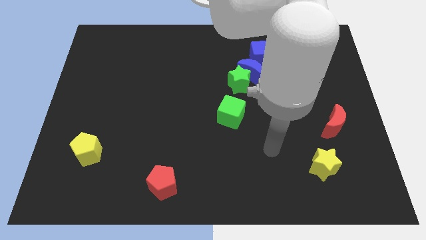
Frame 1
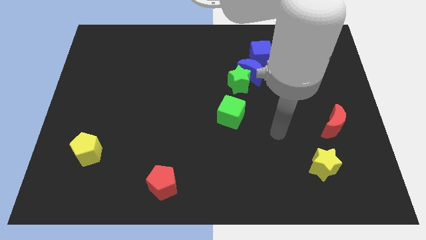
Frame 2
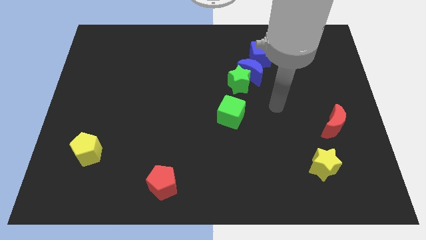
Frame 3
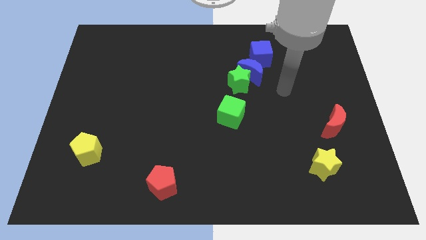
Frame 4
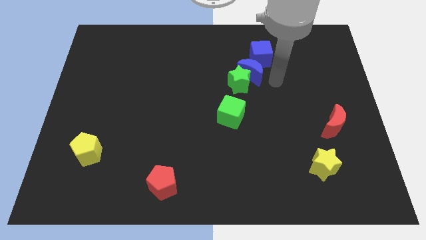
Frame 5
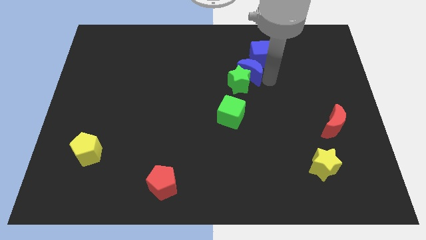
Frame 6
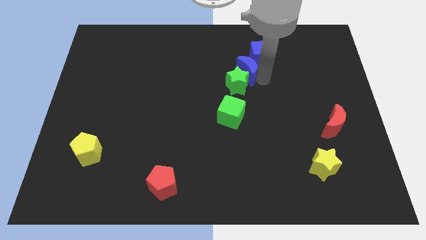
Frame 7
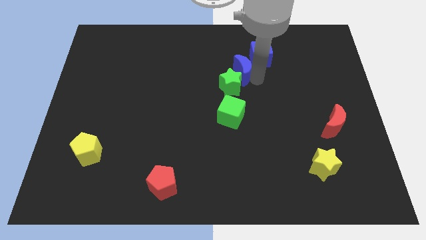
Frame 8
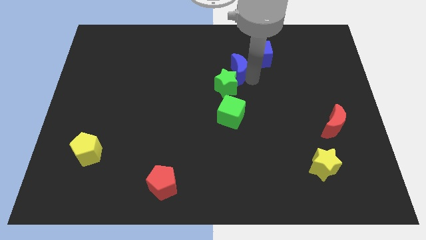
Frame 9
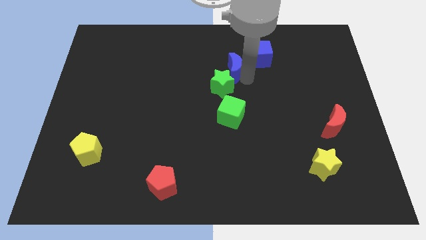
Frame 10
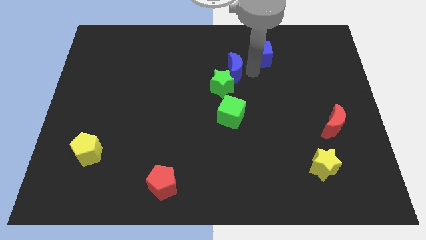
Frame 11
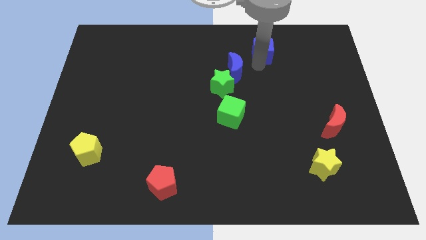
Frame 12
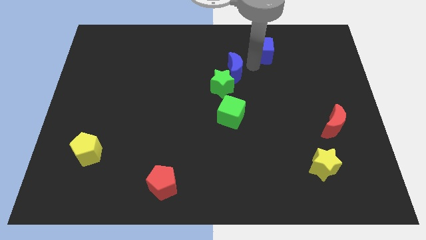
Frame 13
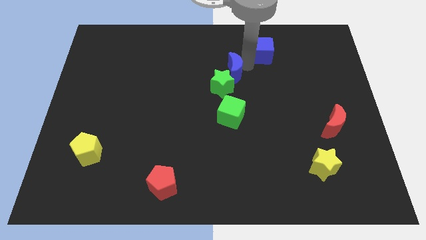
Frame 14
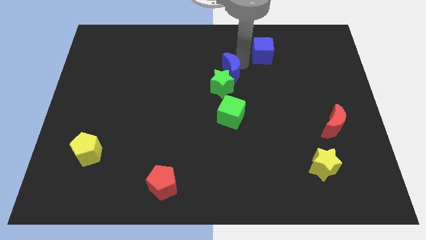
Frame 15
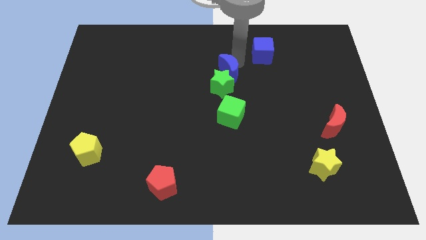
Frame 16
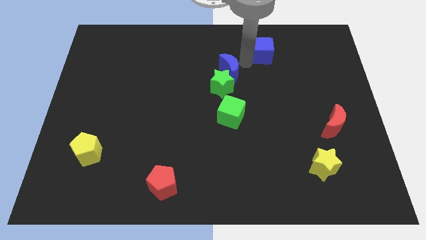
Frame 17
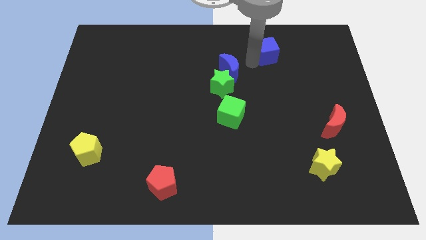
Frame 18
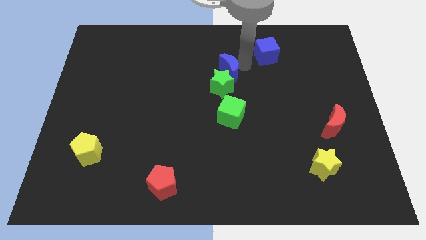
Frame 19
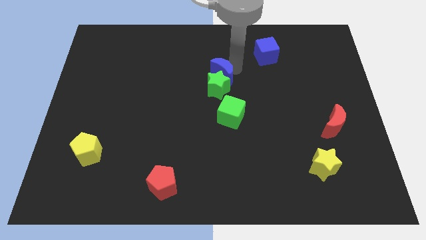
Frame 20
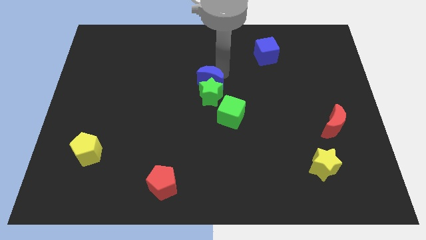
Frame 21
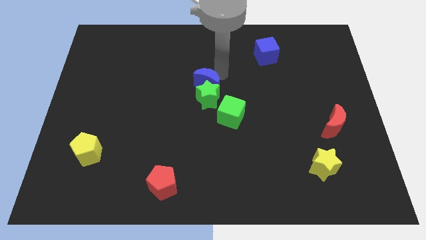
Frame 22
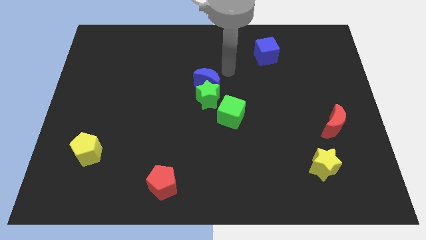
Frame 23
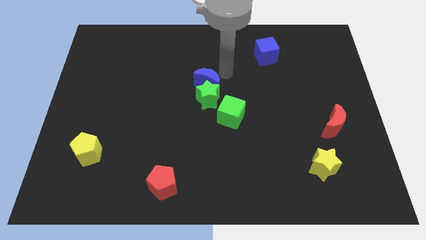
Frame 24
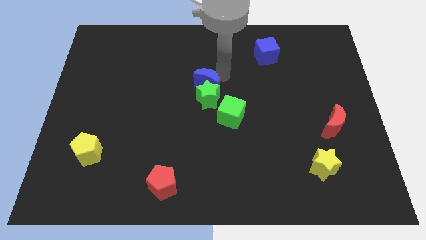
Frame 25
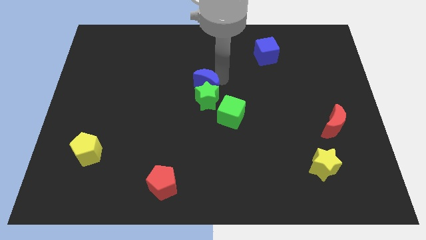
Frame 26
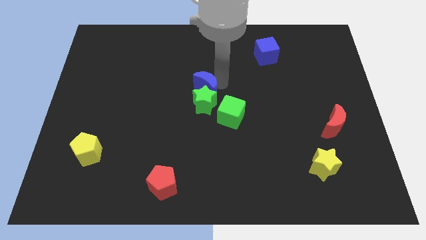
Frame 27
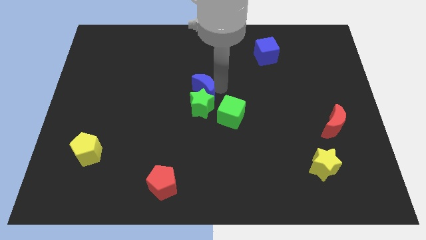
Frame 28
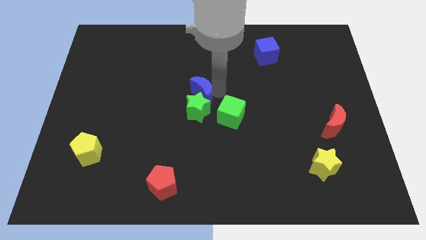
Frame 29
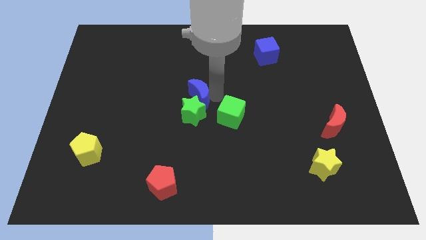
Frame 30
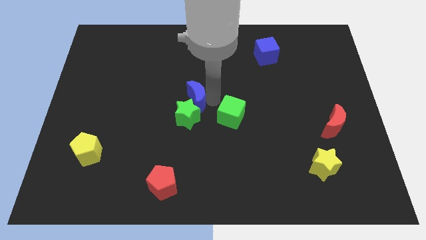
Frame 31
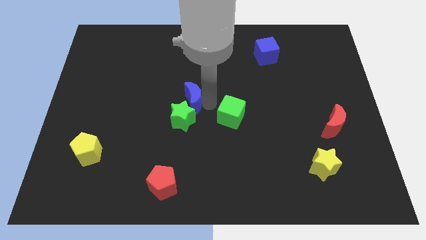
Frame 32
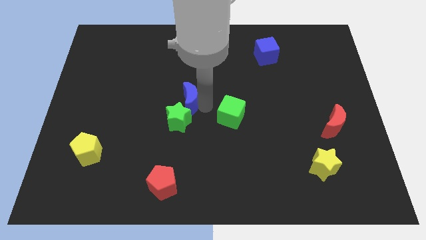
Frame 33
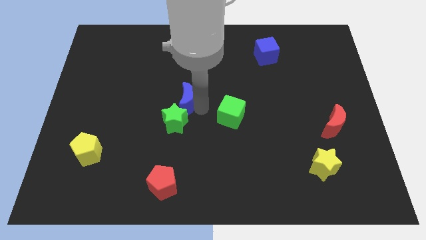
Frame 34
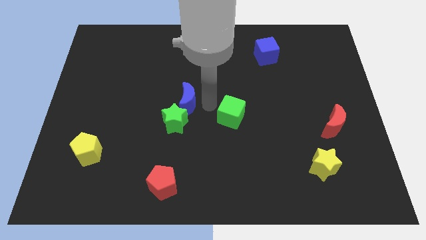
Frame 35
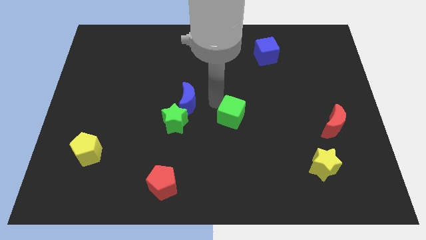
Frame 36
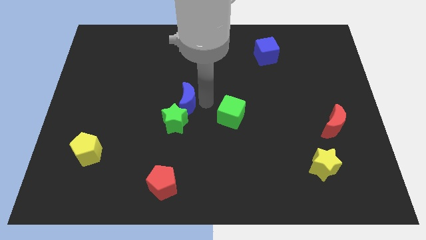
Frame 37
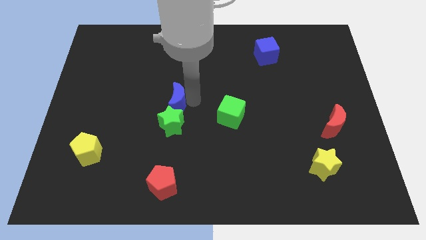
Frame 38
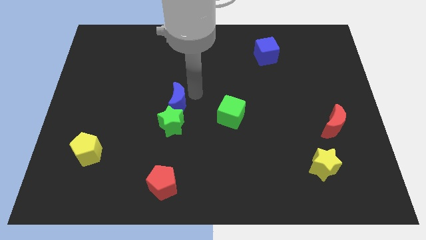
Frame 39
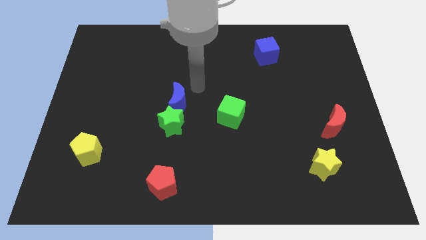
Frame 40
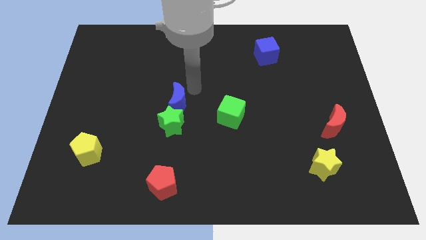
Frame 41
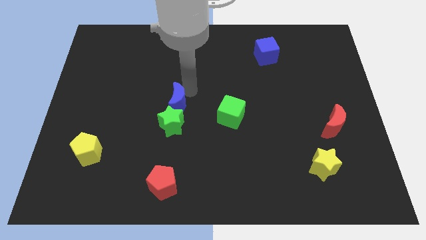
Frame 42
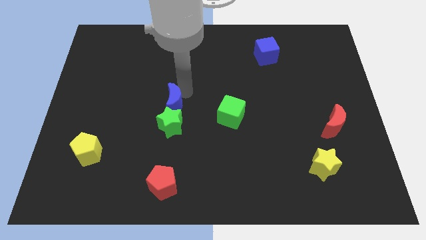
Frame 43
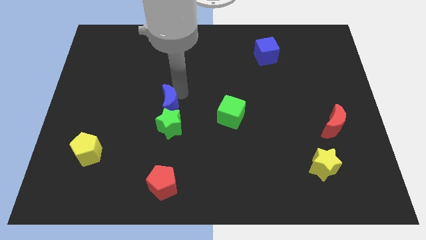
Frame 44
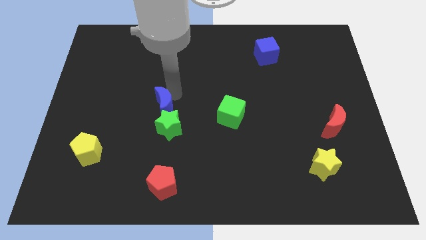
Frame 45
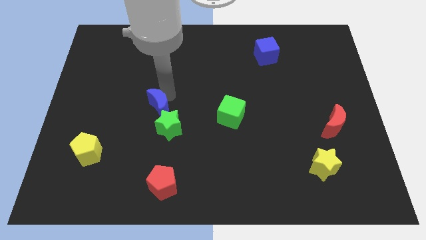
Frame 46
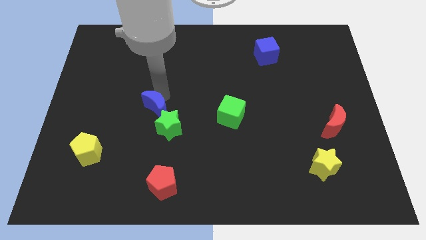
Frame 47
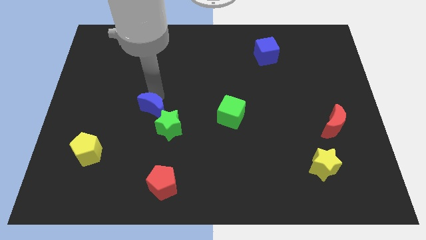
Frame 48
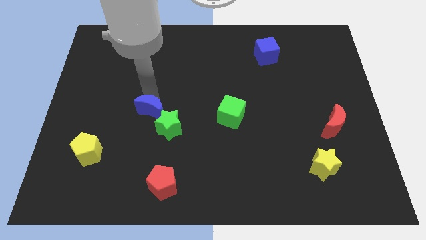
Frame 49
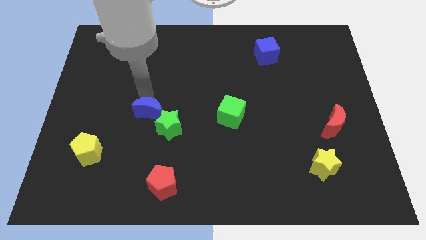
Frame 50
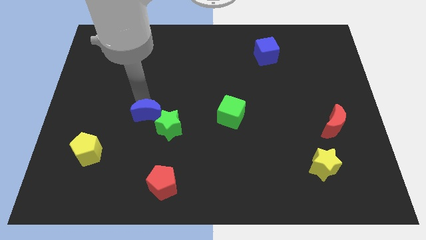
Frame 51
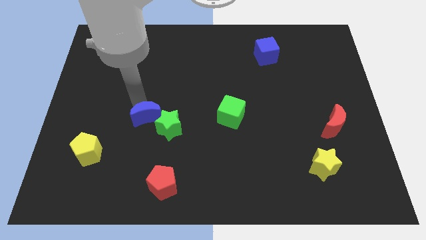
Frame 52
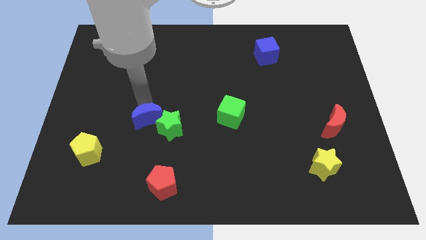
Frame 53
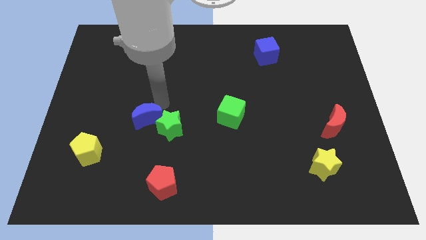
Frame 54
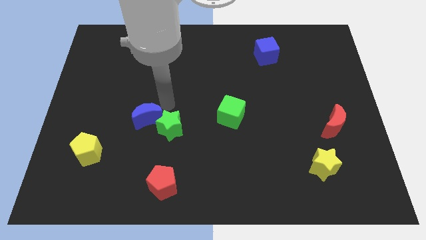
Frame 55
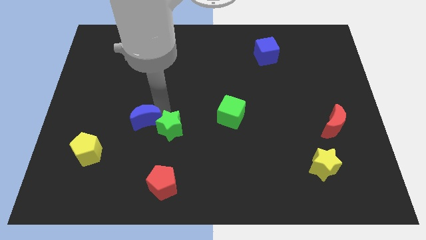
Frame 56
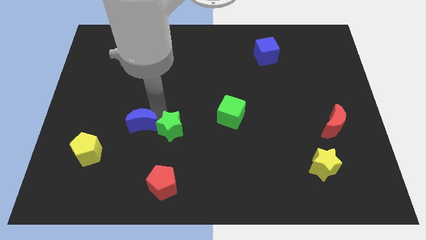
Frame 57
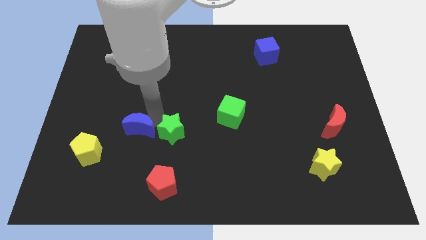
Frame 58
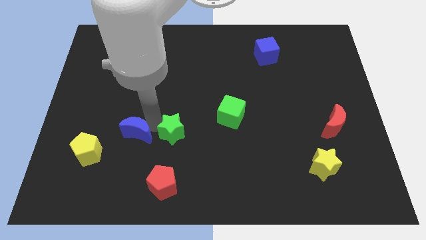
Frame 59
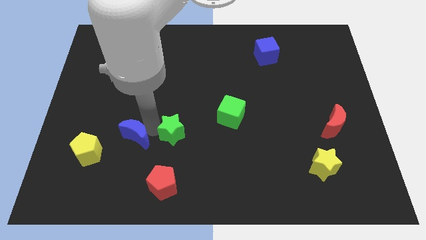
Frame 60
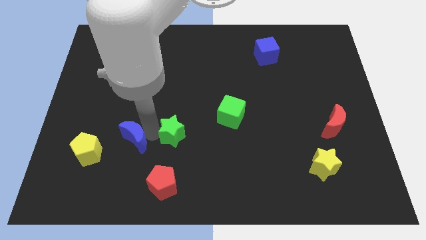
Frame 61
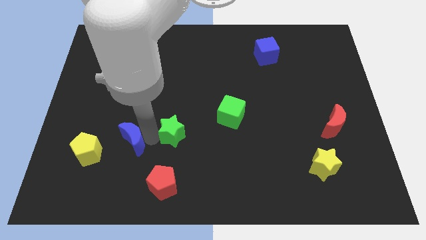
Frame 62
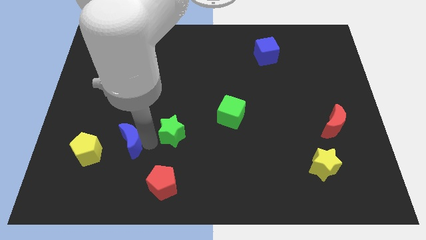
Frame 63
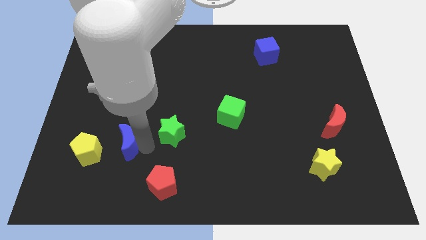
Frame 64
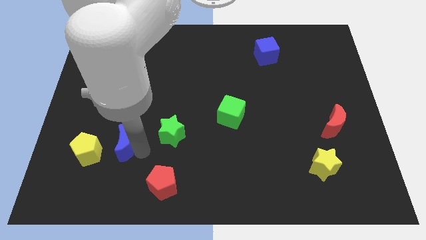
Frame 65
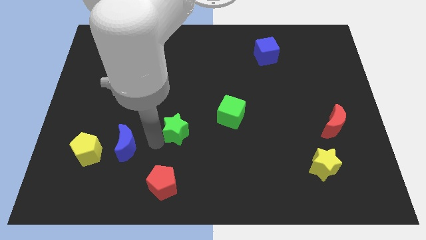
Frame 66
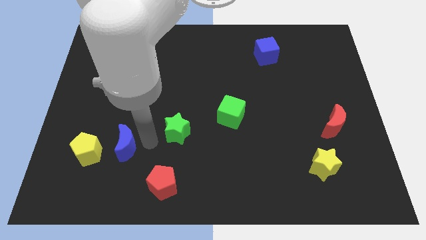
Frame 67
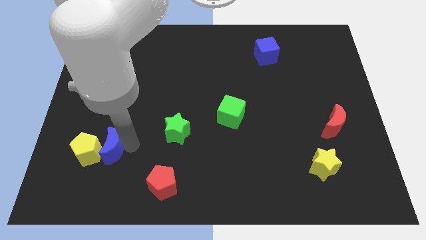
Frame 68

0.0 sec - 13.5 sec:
slide the blue moon close to the yellow pentagon

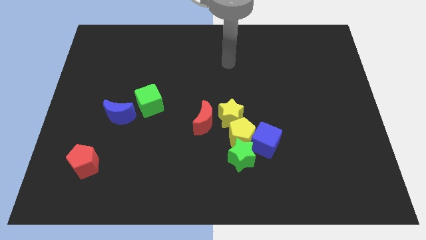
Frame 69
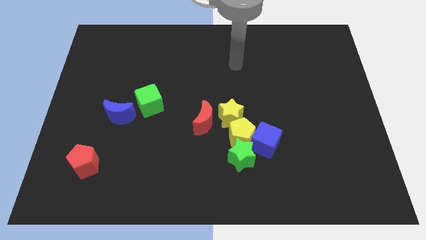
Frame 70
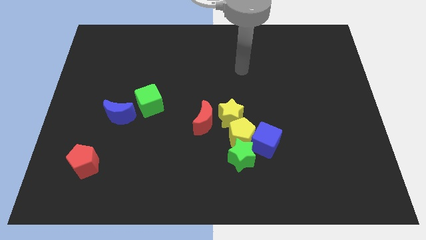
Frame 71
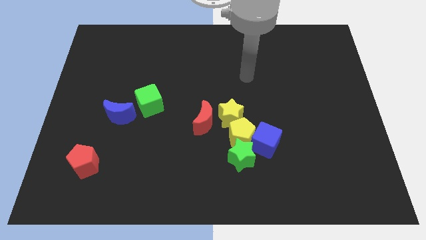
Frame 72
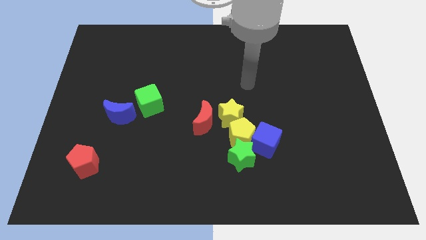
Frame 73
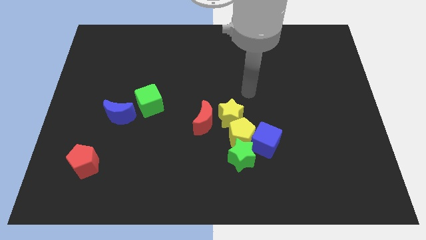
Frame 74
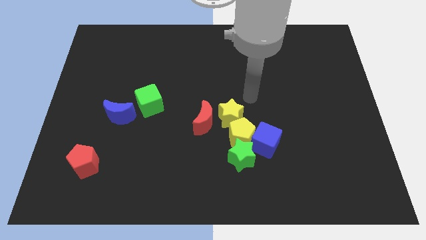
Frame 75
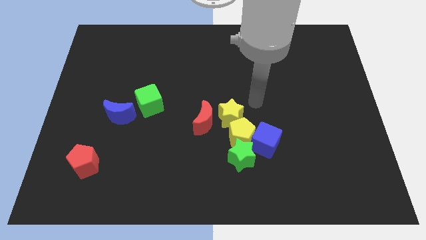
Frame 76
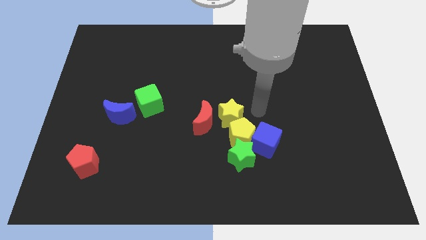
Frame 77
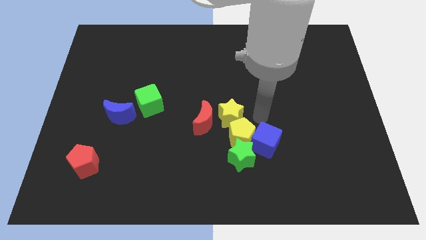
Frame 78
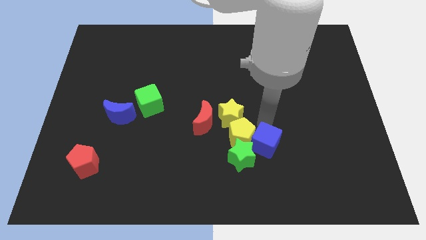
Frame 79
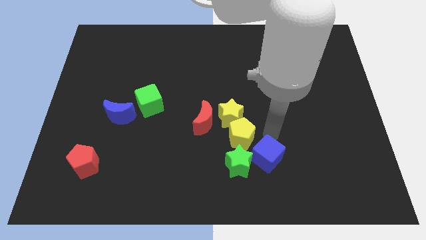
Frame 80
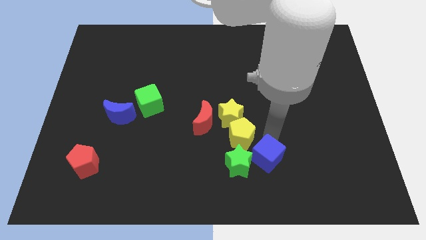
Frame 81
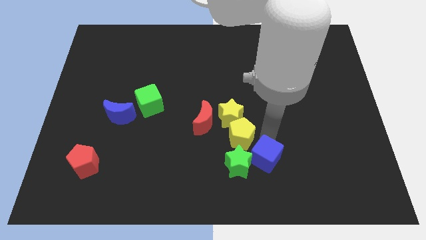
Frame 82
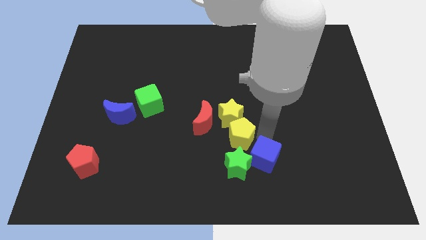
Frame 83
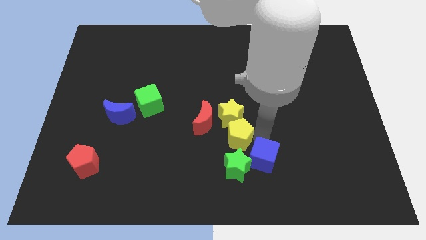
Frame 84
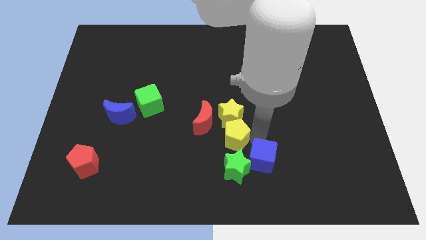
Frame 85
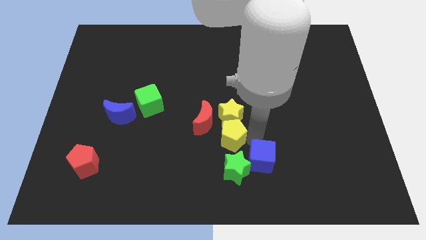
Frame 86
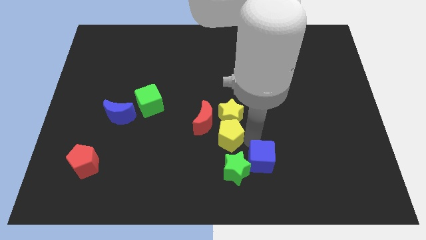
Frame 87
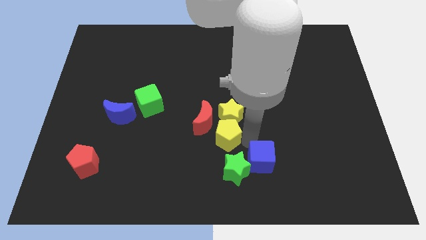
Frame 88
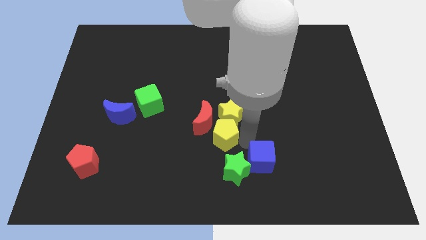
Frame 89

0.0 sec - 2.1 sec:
put the yellow pentagon close to the red moon
